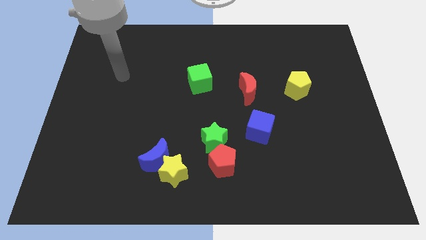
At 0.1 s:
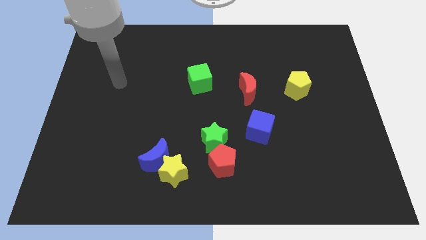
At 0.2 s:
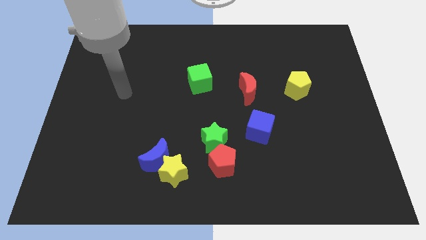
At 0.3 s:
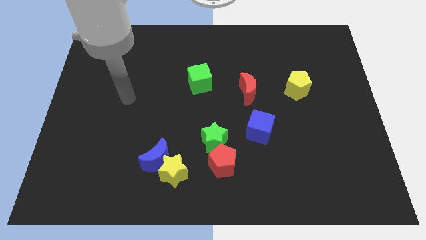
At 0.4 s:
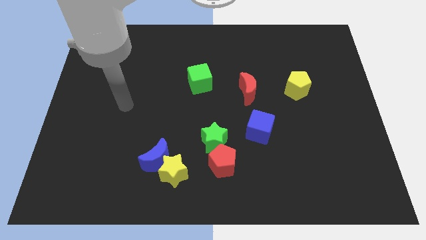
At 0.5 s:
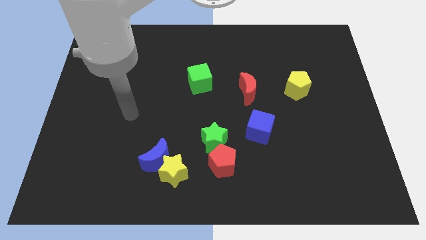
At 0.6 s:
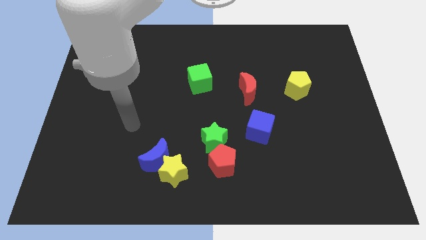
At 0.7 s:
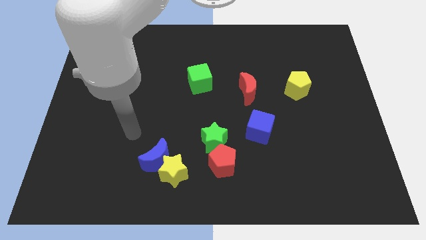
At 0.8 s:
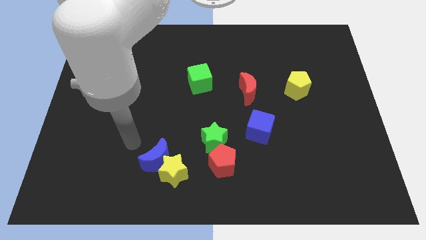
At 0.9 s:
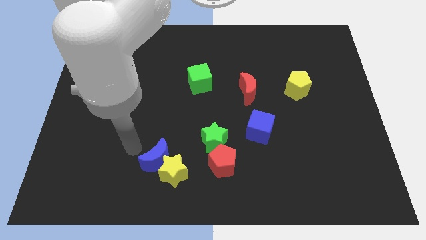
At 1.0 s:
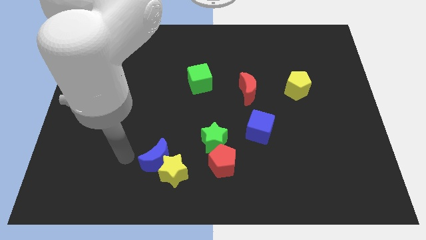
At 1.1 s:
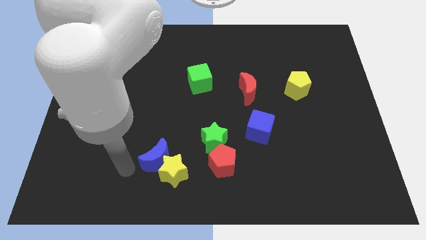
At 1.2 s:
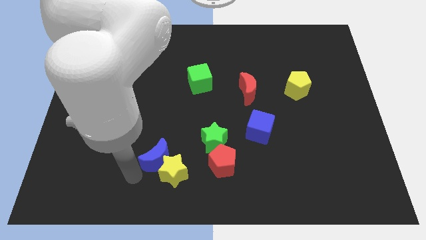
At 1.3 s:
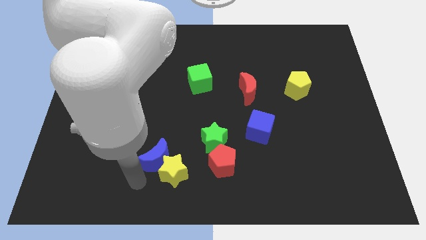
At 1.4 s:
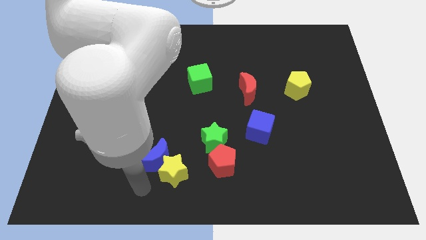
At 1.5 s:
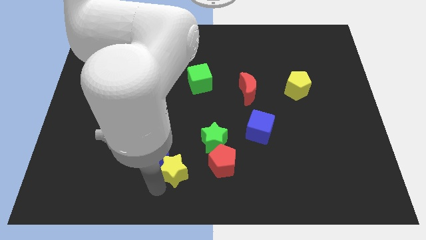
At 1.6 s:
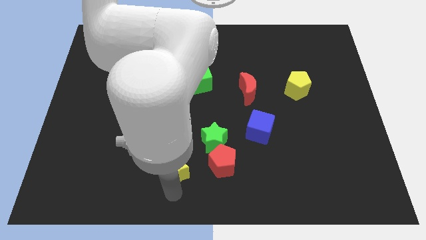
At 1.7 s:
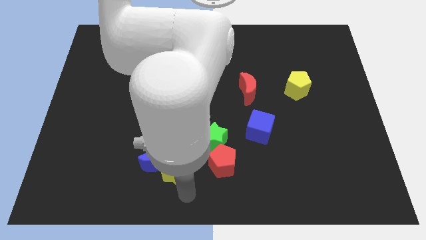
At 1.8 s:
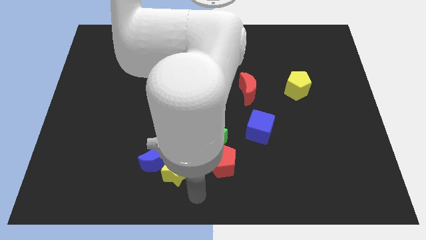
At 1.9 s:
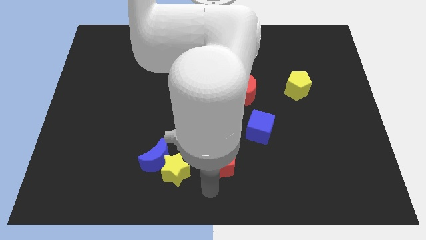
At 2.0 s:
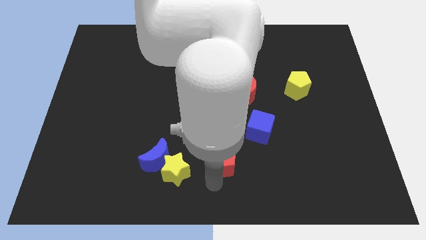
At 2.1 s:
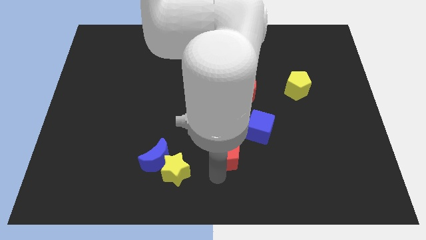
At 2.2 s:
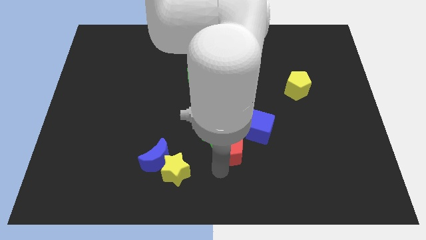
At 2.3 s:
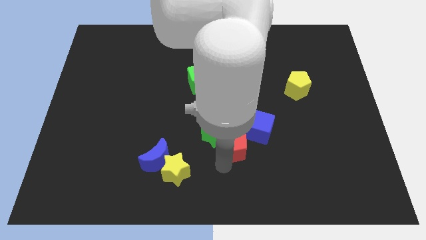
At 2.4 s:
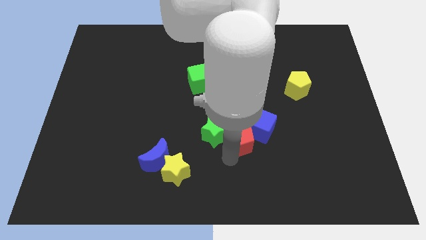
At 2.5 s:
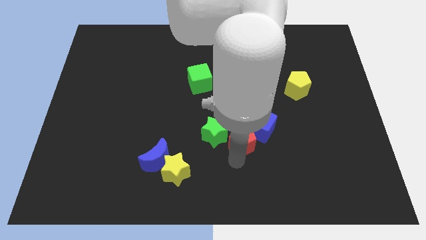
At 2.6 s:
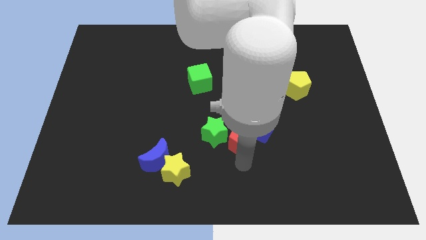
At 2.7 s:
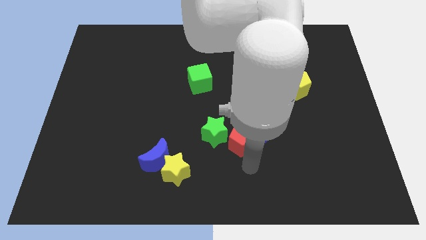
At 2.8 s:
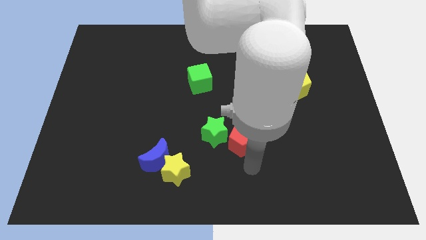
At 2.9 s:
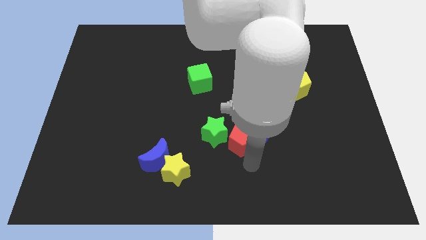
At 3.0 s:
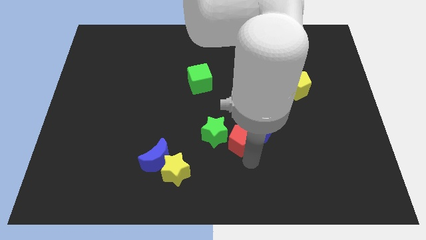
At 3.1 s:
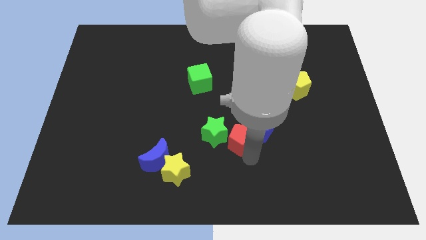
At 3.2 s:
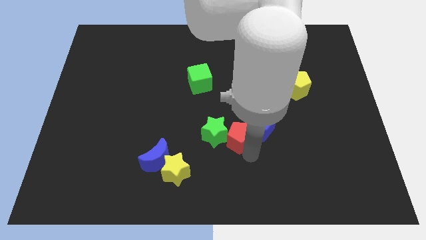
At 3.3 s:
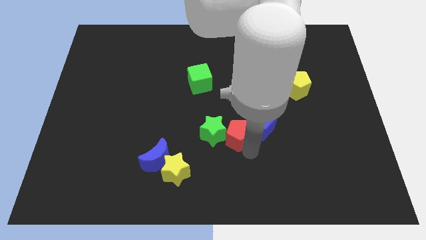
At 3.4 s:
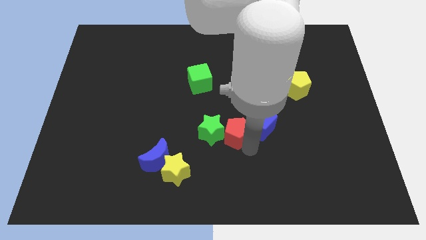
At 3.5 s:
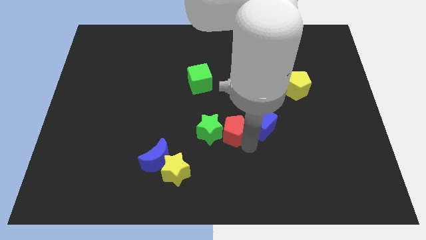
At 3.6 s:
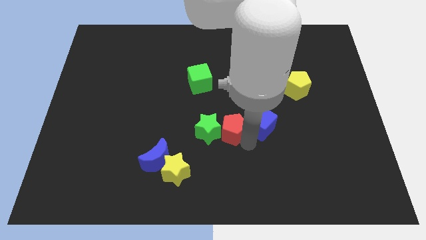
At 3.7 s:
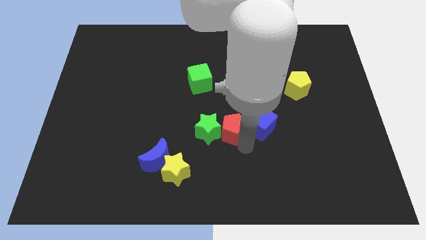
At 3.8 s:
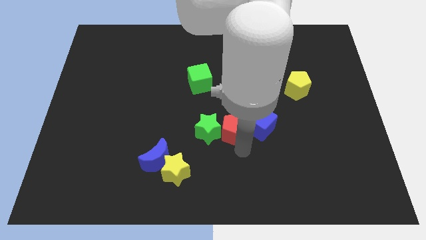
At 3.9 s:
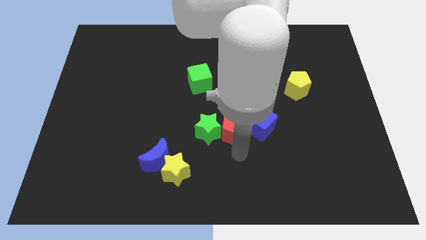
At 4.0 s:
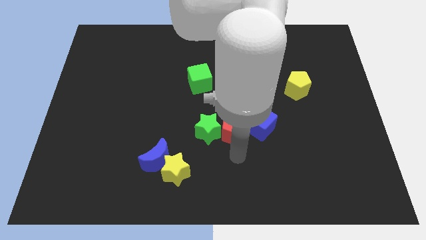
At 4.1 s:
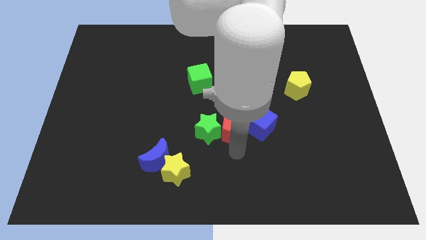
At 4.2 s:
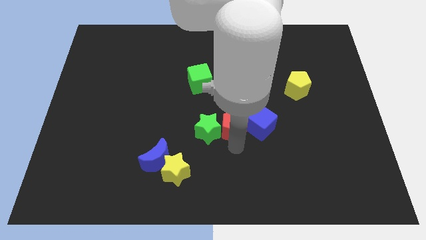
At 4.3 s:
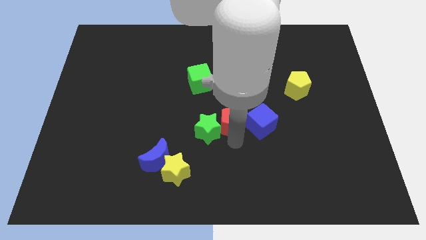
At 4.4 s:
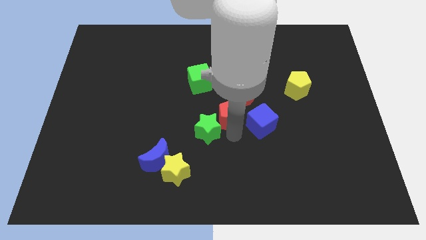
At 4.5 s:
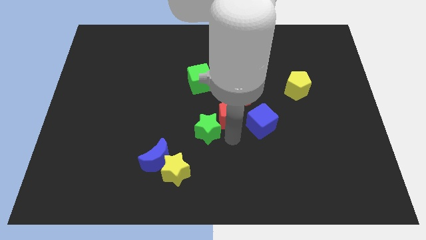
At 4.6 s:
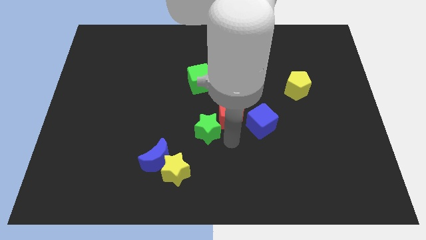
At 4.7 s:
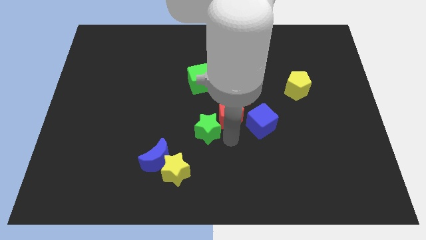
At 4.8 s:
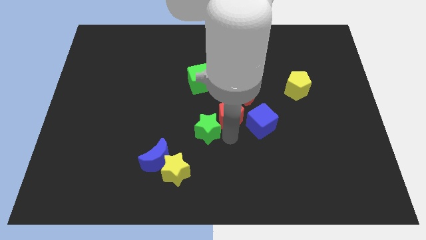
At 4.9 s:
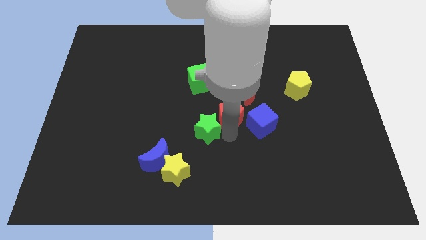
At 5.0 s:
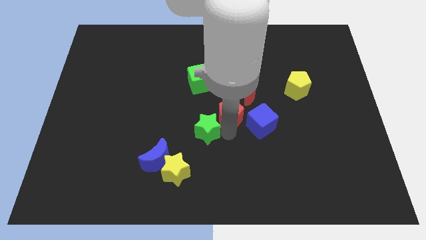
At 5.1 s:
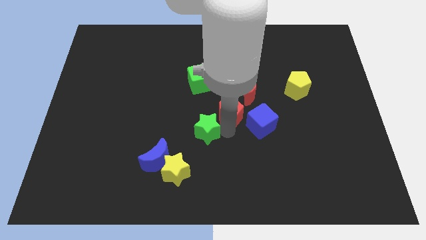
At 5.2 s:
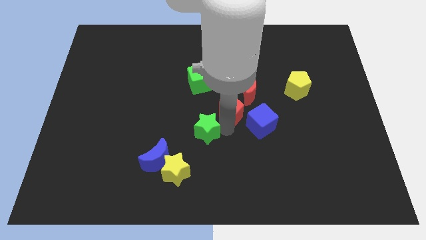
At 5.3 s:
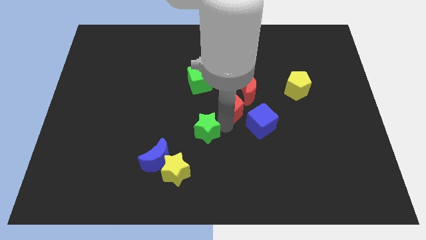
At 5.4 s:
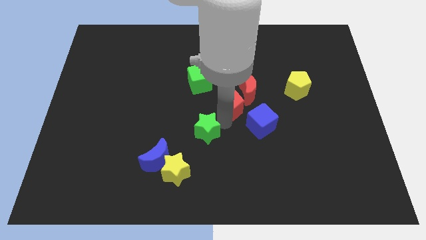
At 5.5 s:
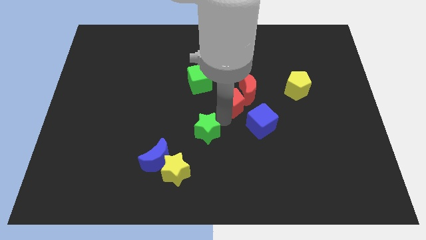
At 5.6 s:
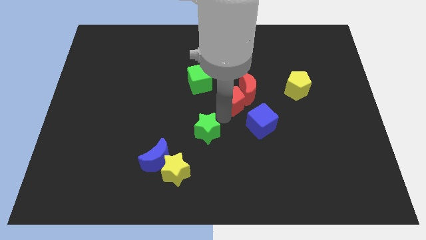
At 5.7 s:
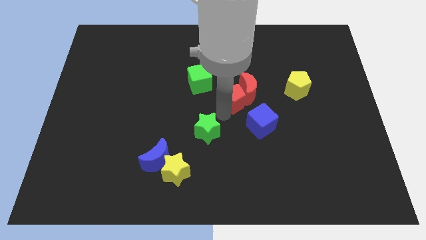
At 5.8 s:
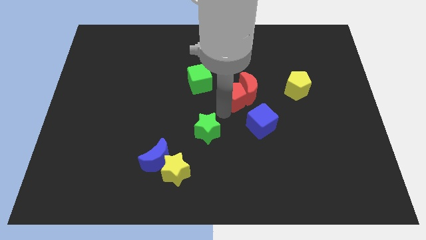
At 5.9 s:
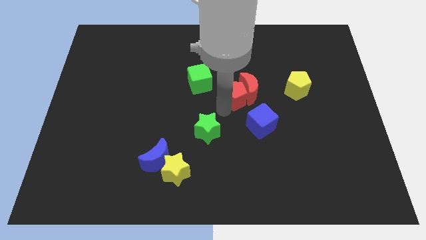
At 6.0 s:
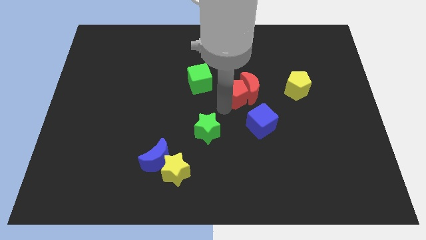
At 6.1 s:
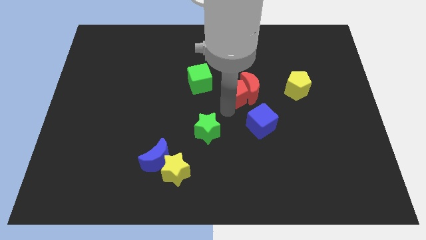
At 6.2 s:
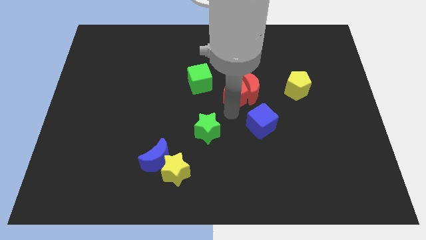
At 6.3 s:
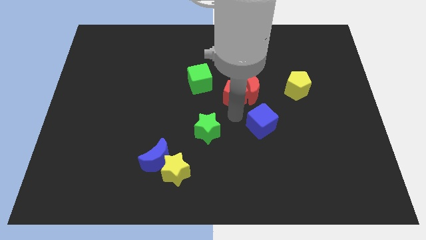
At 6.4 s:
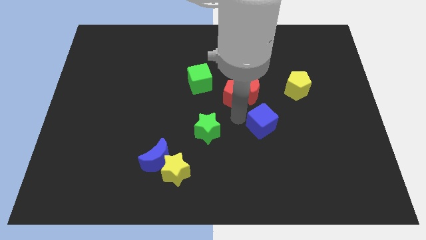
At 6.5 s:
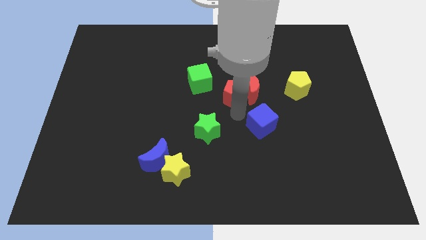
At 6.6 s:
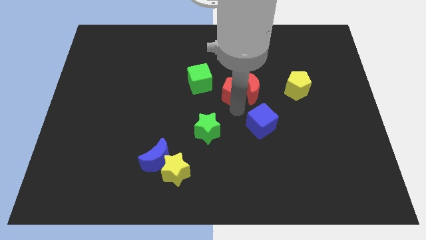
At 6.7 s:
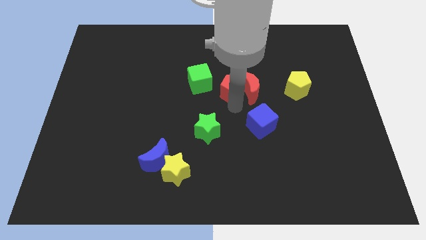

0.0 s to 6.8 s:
move the red pentagon up

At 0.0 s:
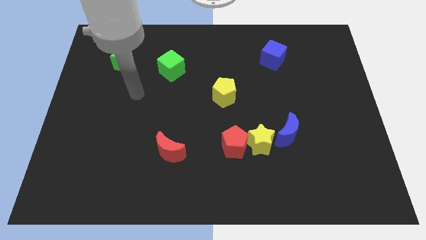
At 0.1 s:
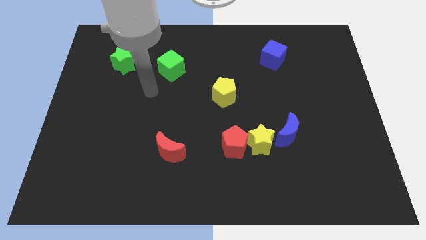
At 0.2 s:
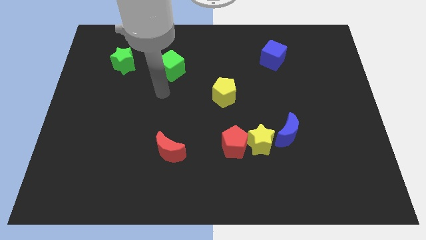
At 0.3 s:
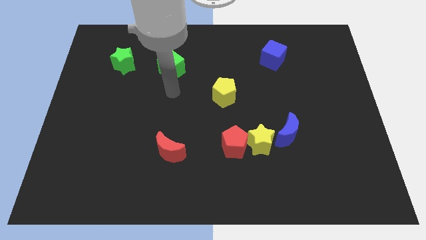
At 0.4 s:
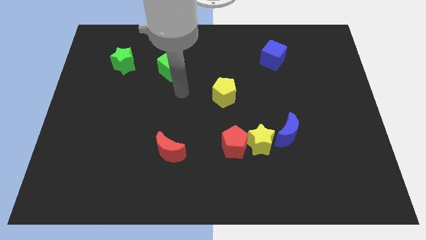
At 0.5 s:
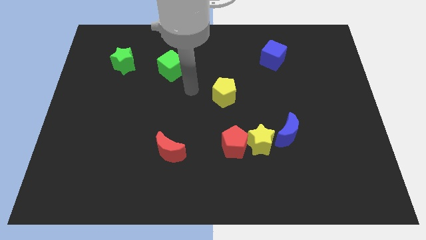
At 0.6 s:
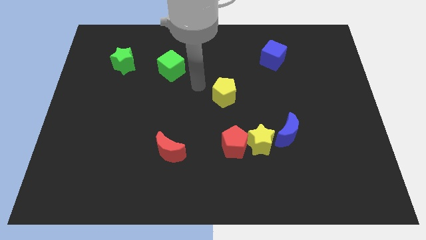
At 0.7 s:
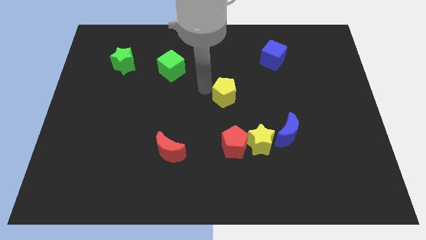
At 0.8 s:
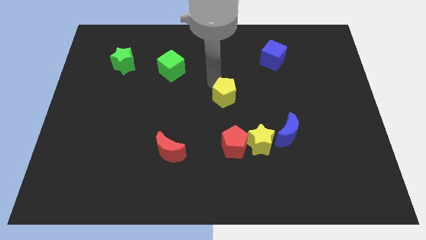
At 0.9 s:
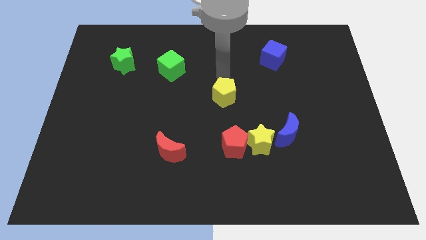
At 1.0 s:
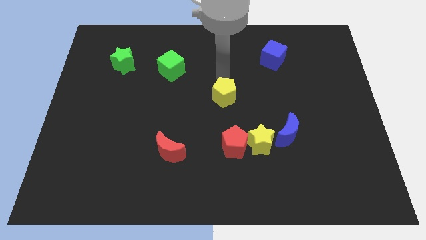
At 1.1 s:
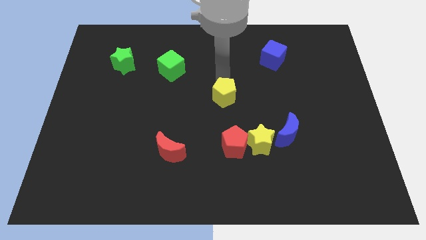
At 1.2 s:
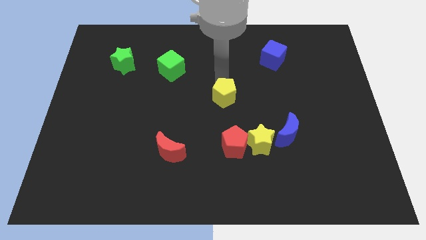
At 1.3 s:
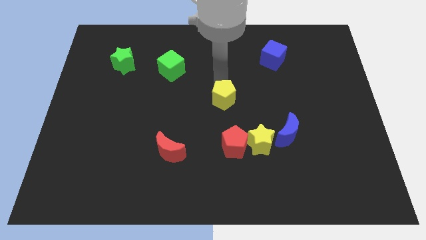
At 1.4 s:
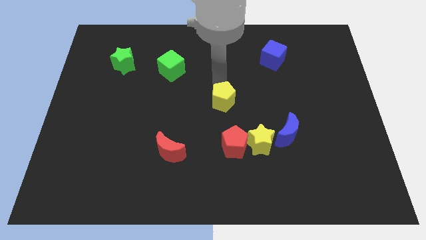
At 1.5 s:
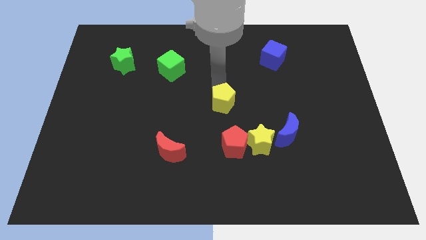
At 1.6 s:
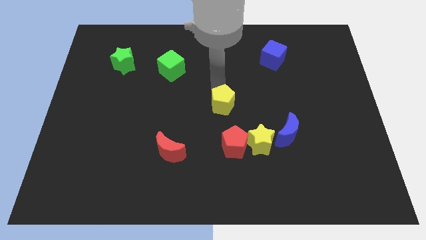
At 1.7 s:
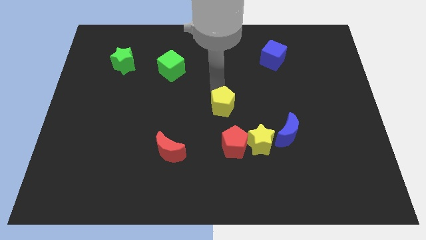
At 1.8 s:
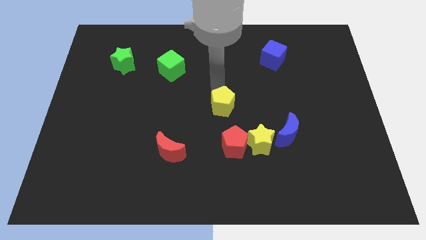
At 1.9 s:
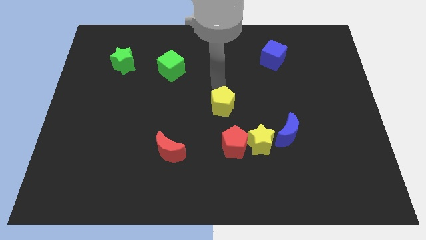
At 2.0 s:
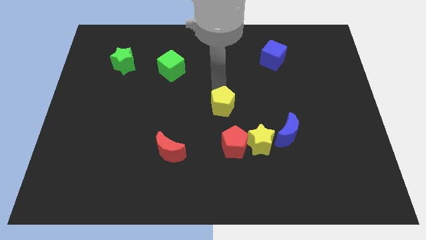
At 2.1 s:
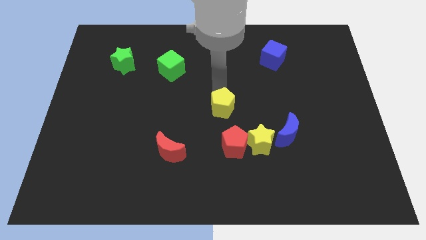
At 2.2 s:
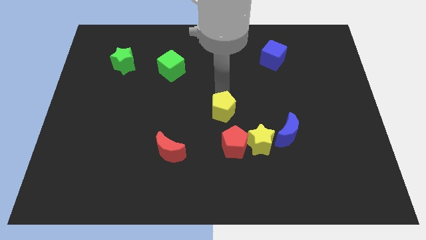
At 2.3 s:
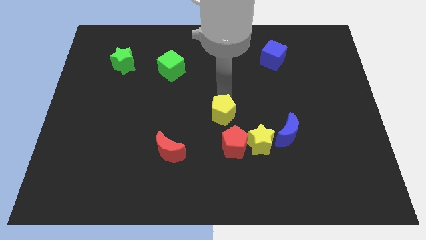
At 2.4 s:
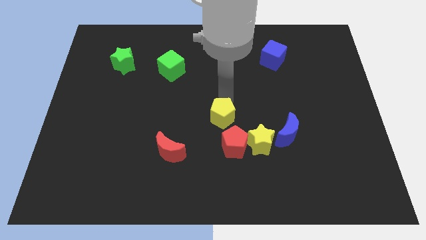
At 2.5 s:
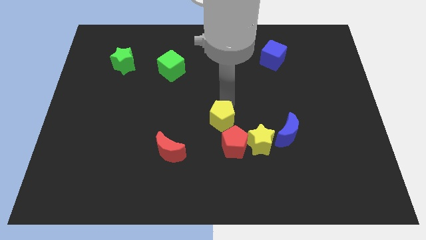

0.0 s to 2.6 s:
push the yellow pentagon downwards a little
